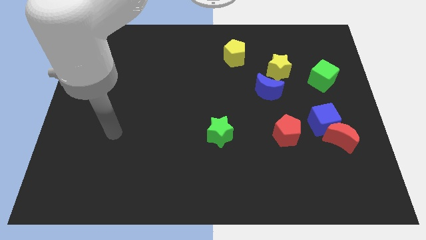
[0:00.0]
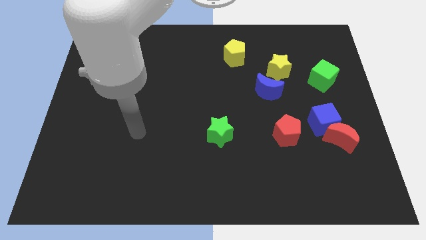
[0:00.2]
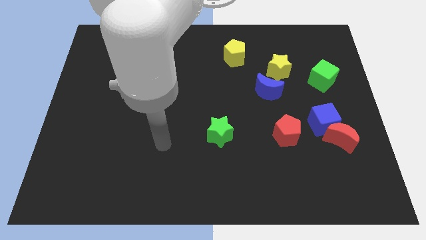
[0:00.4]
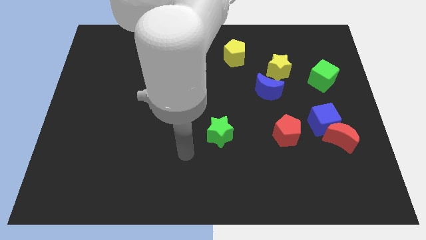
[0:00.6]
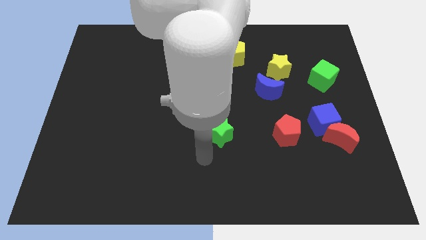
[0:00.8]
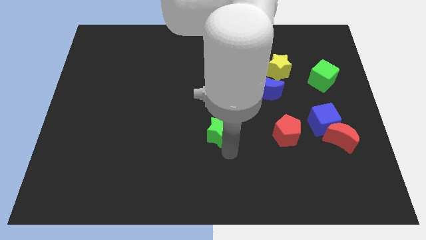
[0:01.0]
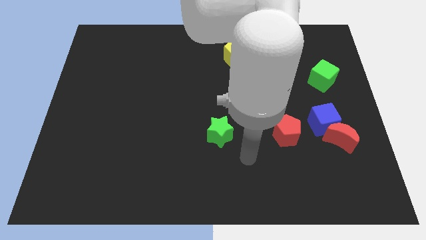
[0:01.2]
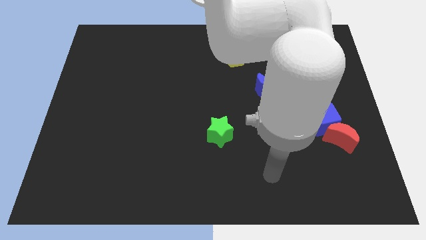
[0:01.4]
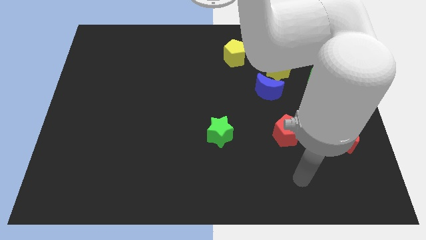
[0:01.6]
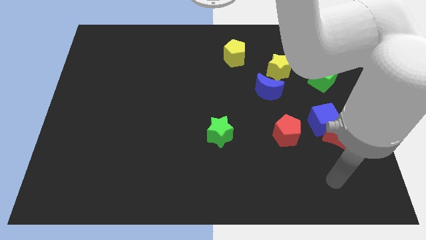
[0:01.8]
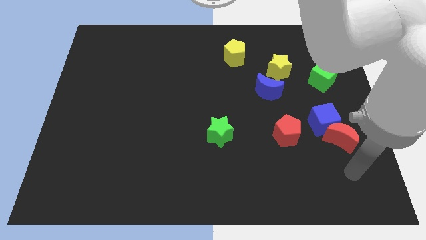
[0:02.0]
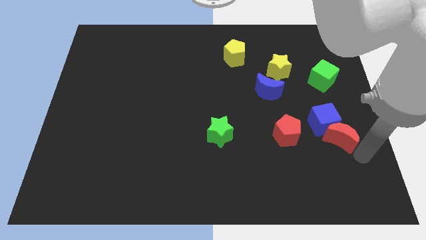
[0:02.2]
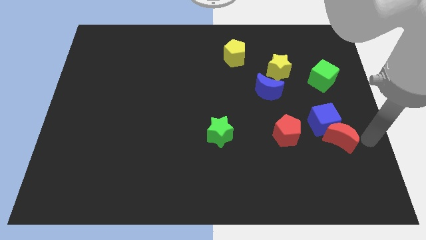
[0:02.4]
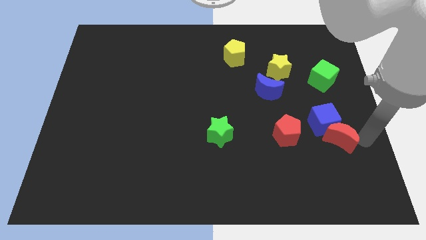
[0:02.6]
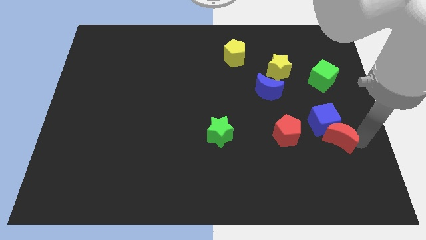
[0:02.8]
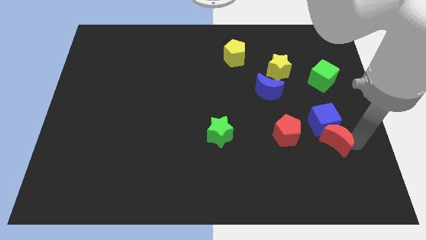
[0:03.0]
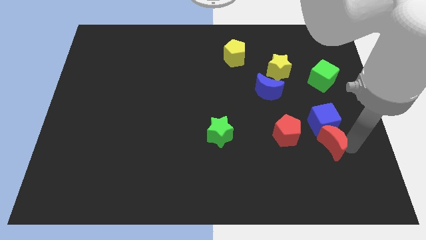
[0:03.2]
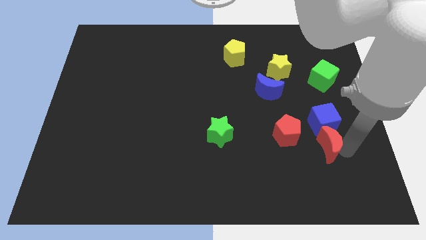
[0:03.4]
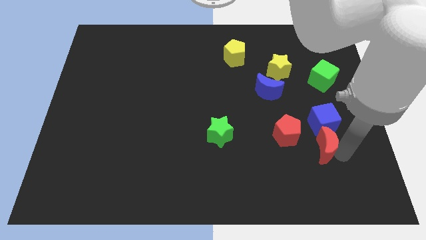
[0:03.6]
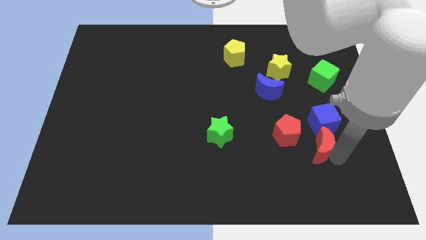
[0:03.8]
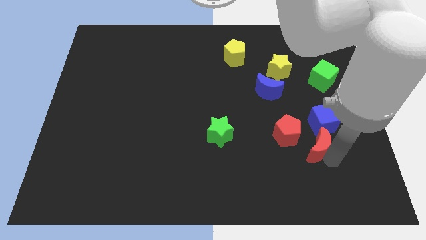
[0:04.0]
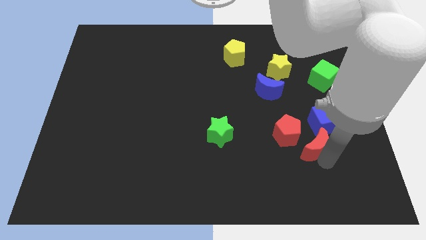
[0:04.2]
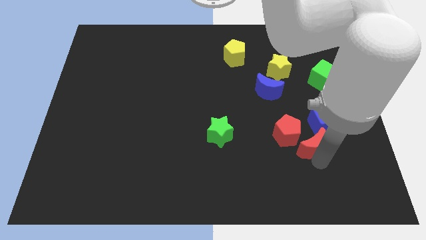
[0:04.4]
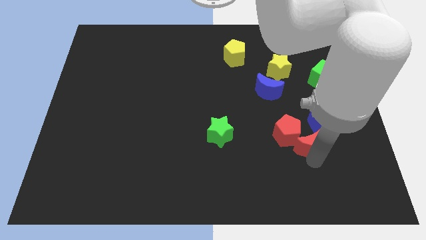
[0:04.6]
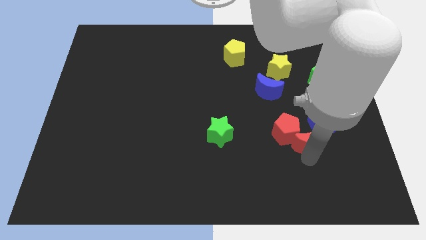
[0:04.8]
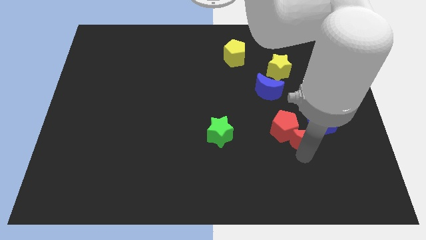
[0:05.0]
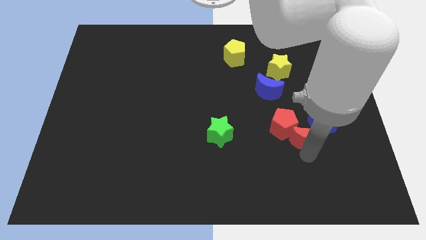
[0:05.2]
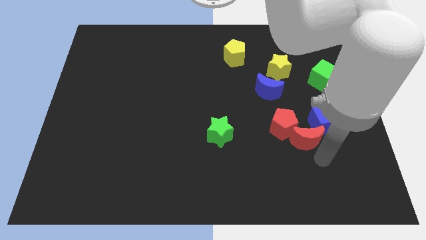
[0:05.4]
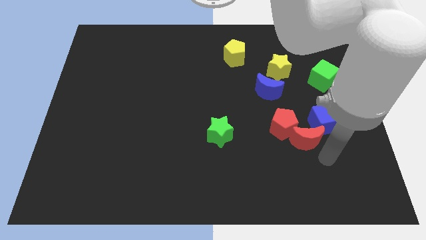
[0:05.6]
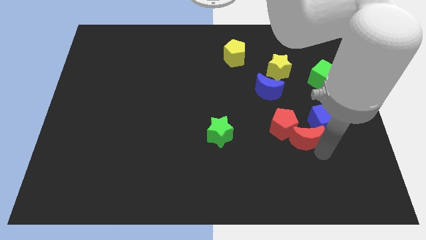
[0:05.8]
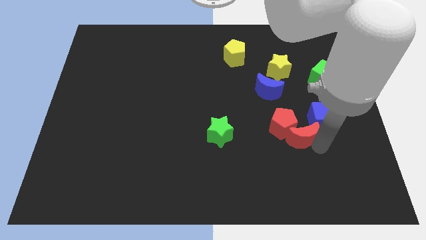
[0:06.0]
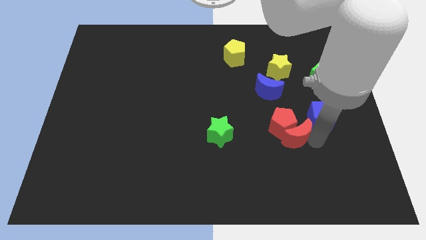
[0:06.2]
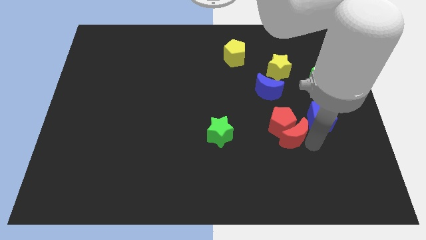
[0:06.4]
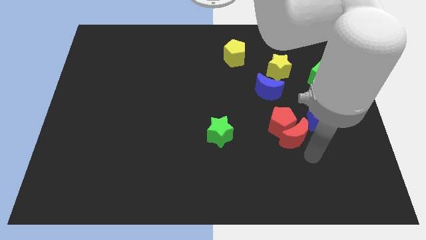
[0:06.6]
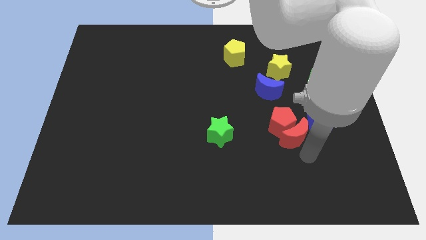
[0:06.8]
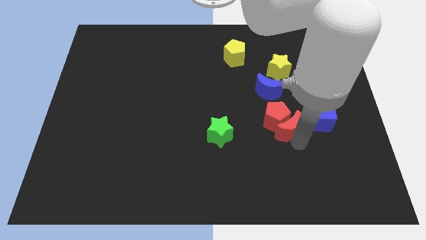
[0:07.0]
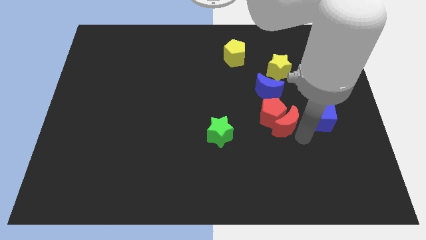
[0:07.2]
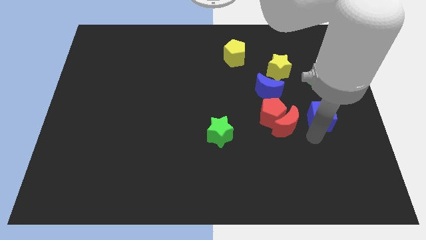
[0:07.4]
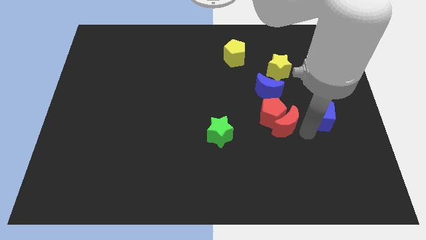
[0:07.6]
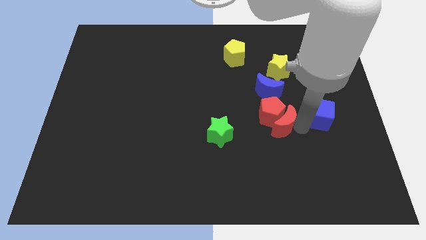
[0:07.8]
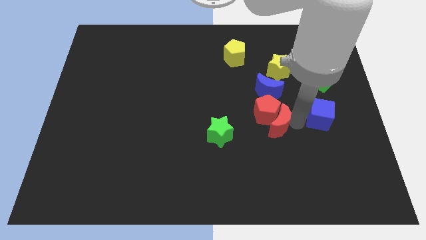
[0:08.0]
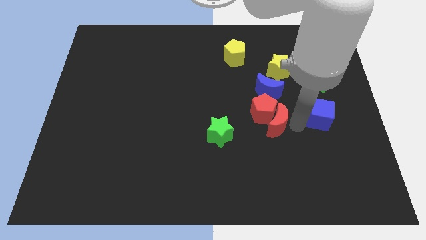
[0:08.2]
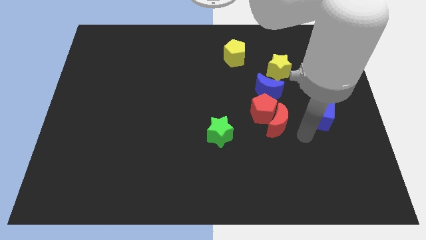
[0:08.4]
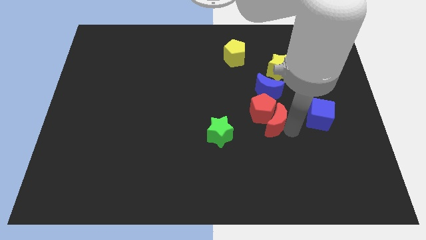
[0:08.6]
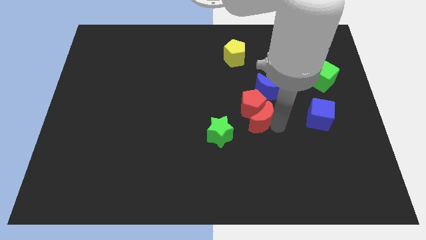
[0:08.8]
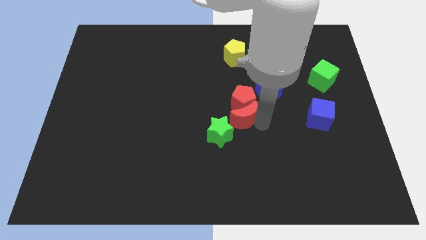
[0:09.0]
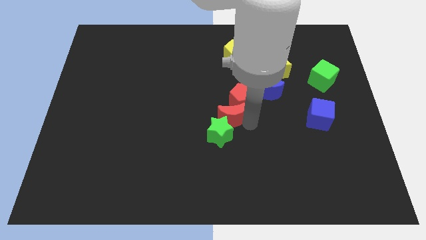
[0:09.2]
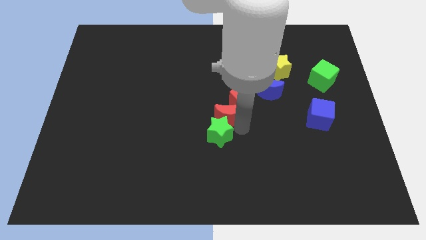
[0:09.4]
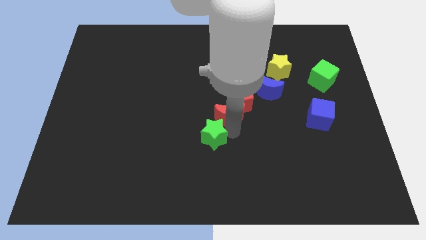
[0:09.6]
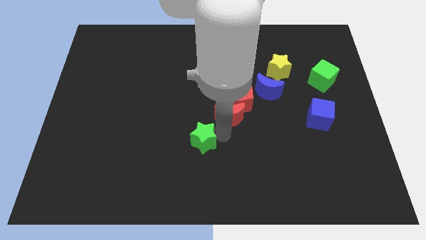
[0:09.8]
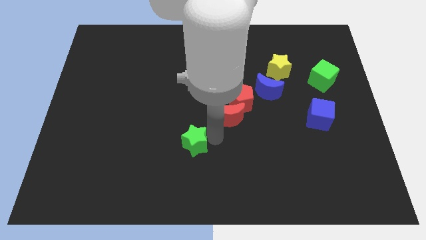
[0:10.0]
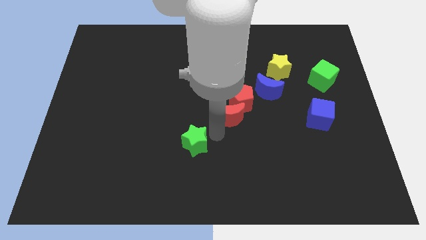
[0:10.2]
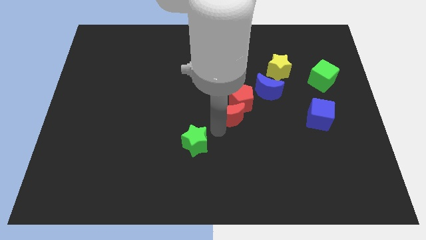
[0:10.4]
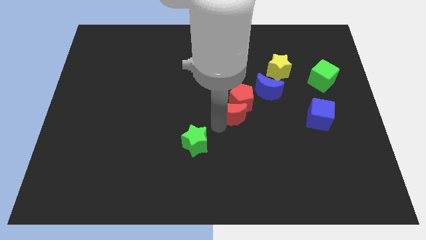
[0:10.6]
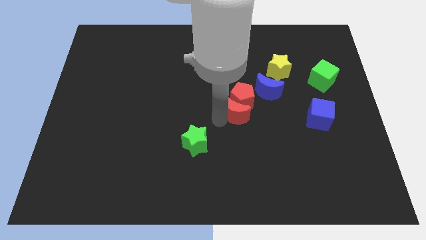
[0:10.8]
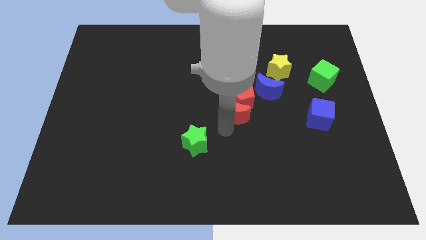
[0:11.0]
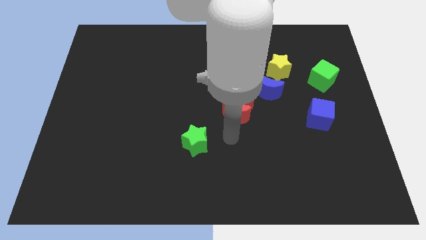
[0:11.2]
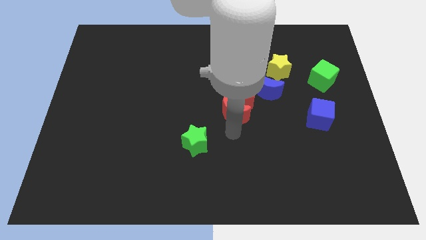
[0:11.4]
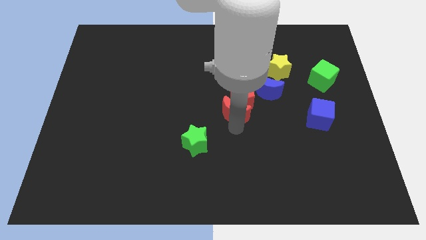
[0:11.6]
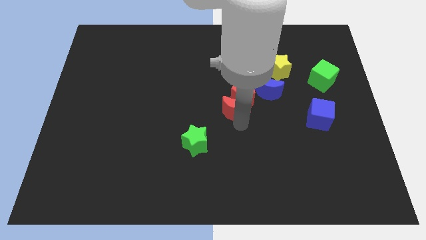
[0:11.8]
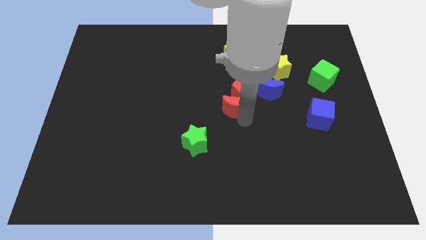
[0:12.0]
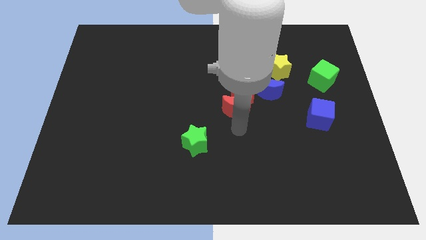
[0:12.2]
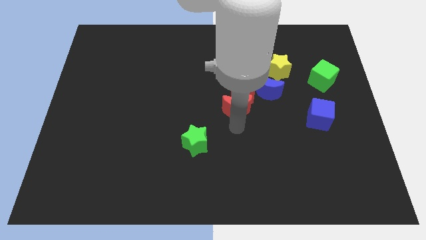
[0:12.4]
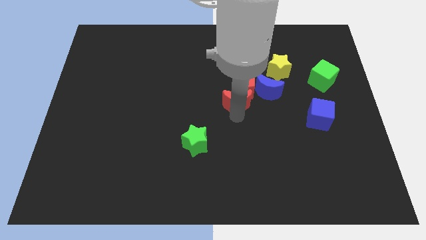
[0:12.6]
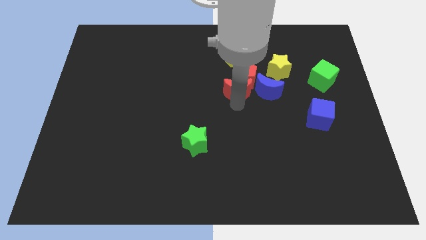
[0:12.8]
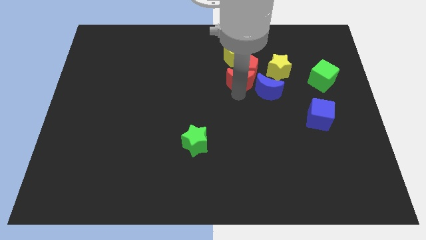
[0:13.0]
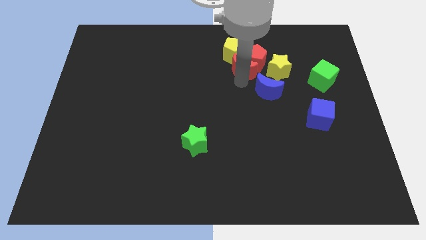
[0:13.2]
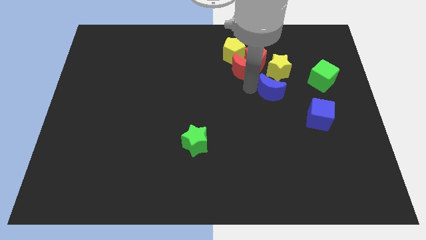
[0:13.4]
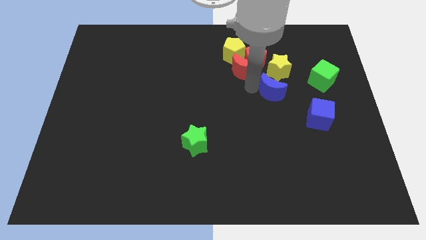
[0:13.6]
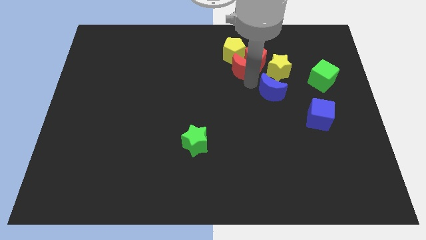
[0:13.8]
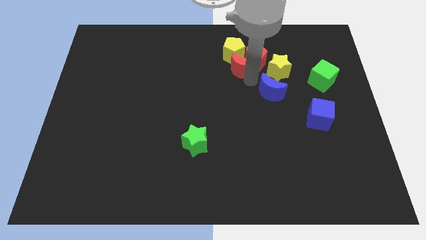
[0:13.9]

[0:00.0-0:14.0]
put the red moon to the yellow pentagon
